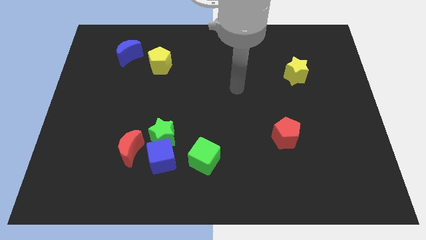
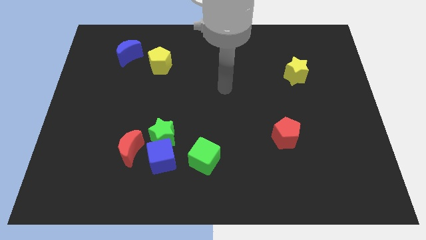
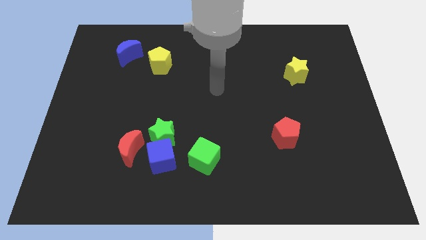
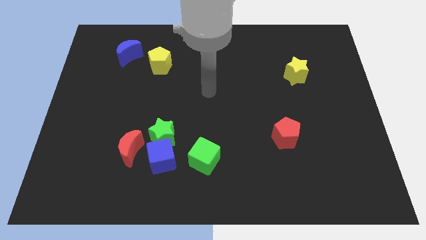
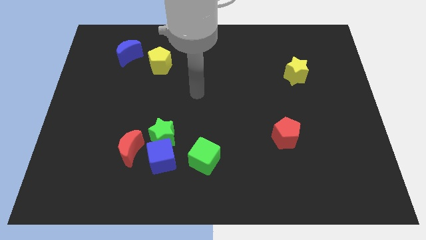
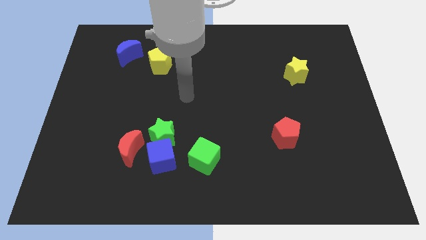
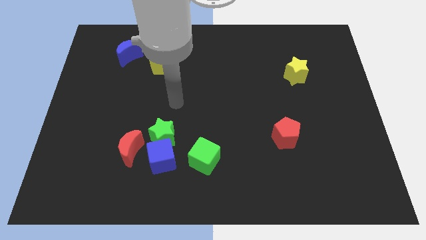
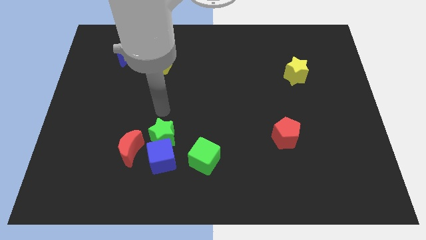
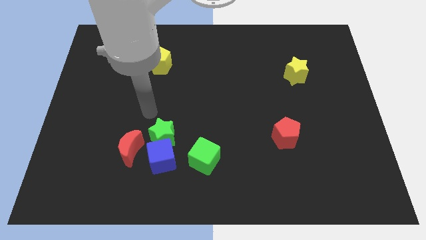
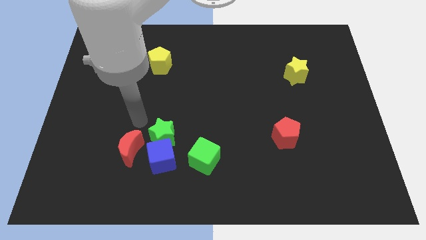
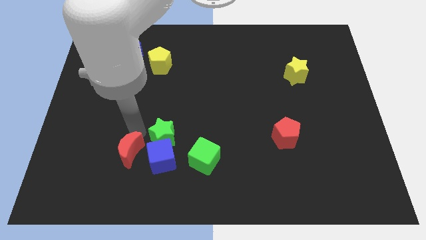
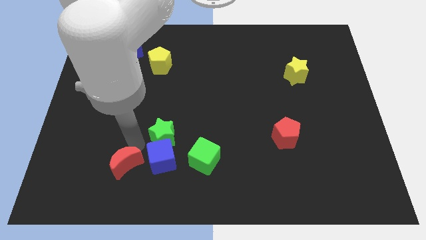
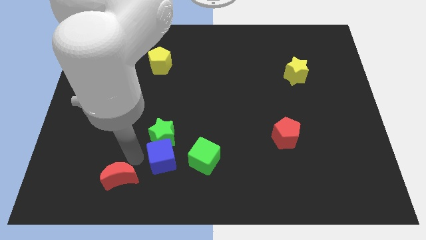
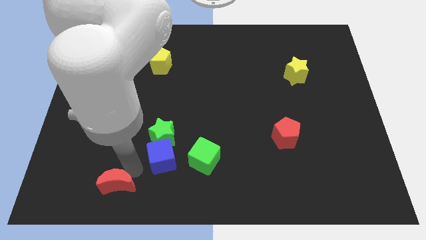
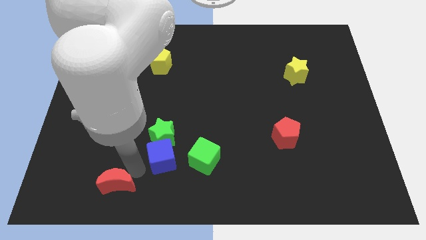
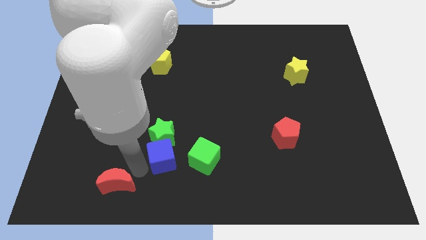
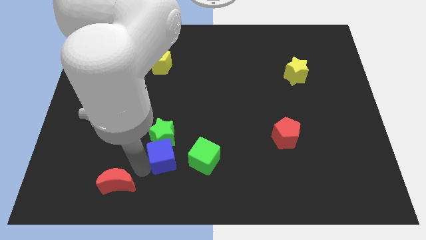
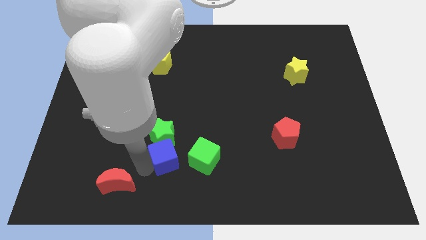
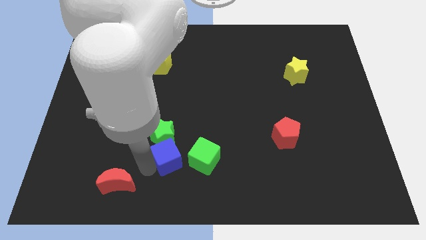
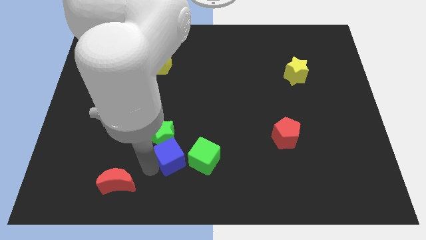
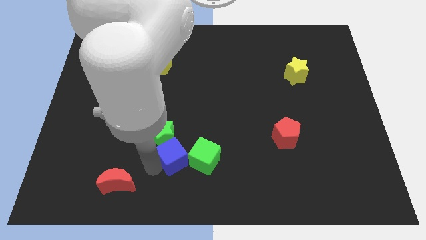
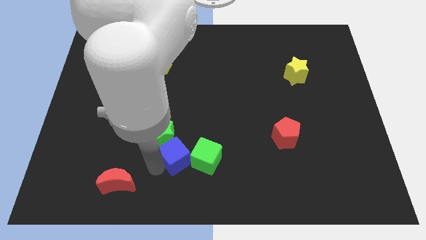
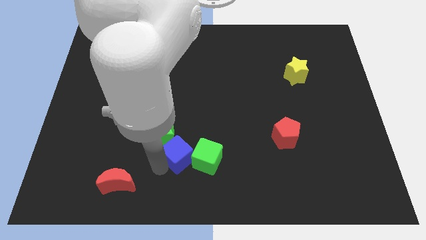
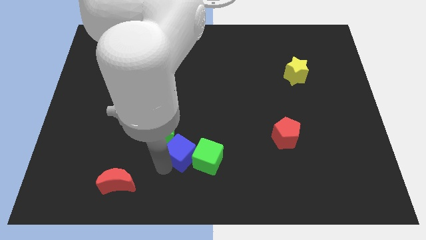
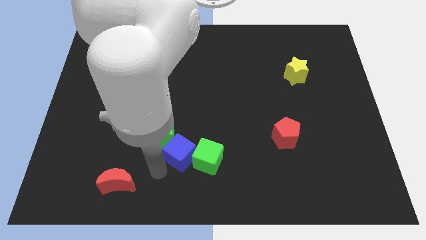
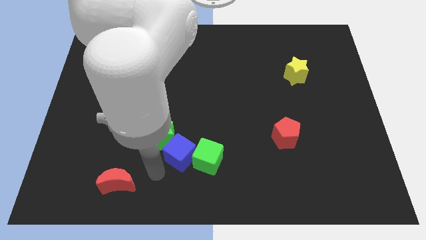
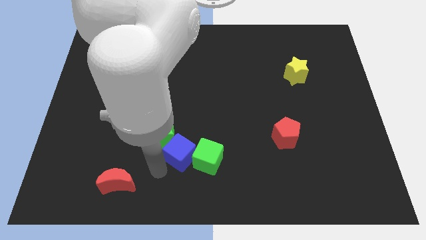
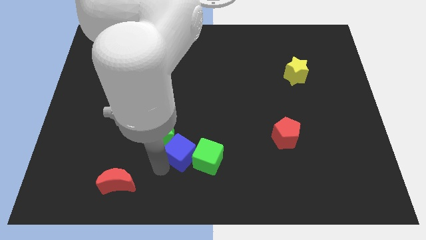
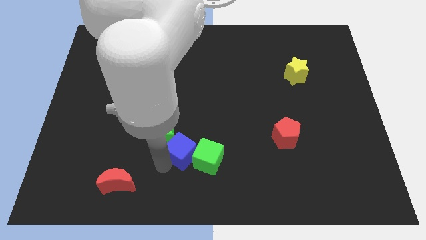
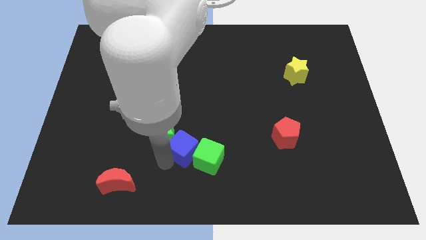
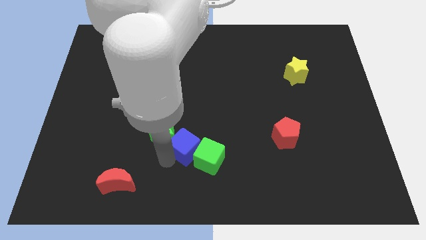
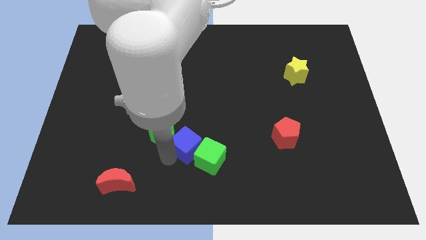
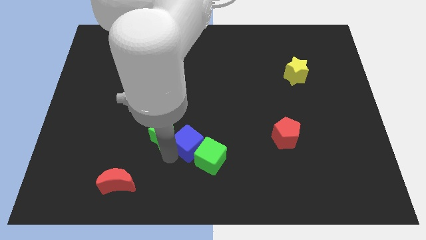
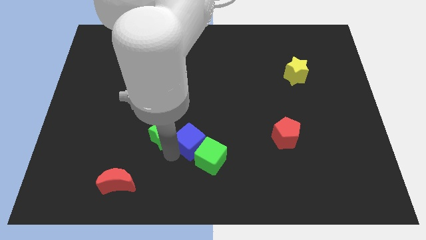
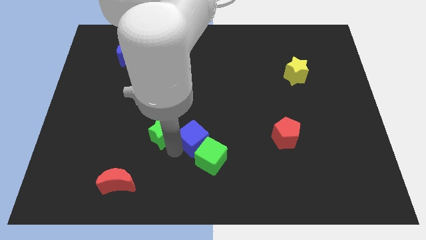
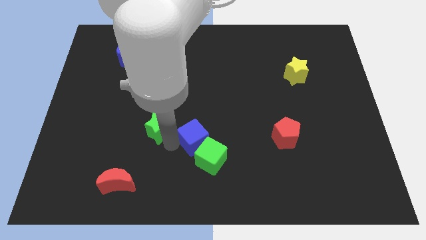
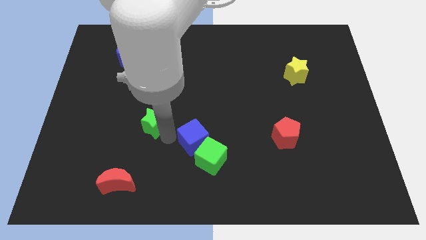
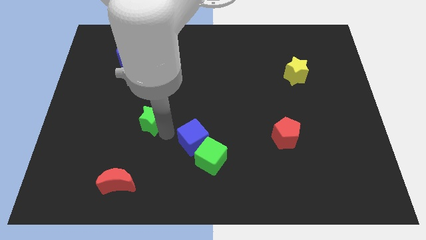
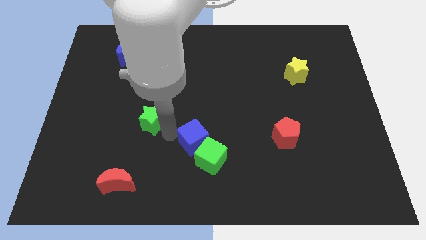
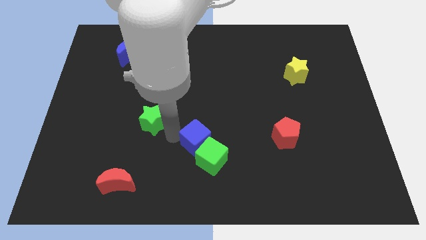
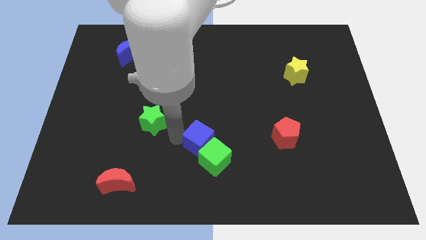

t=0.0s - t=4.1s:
push the blue cube right a bit

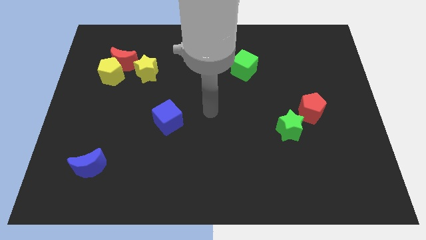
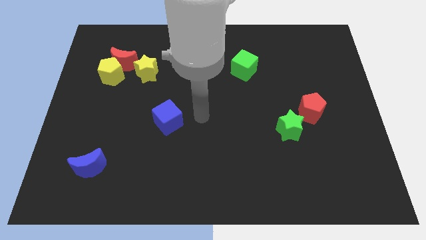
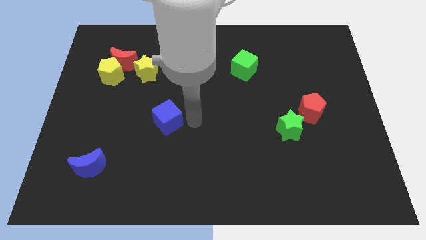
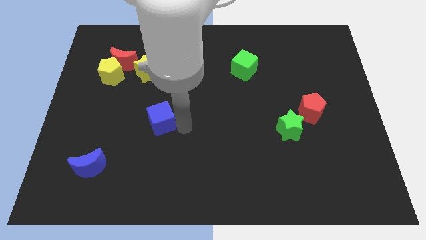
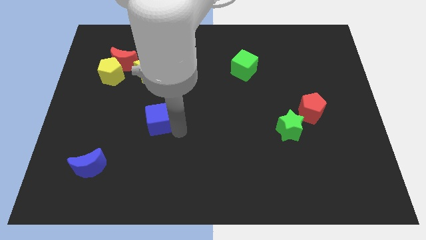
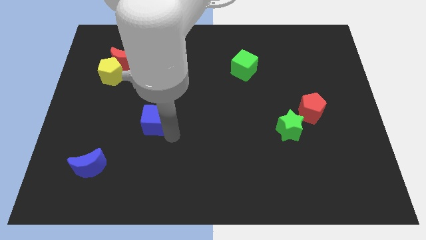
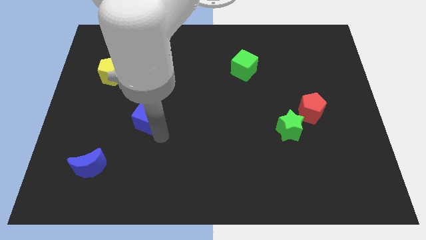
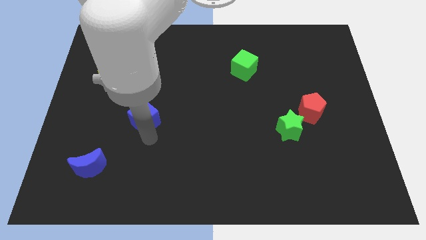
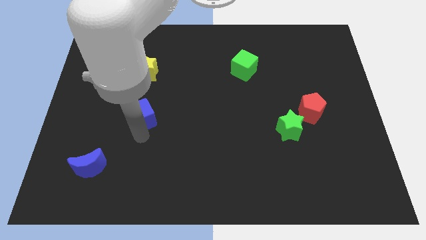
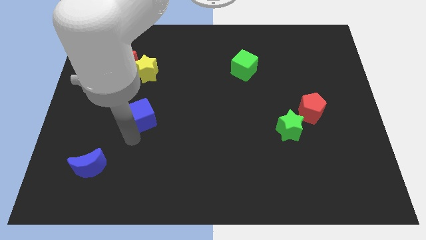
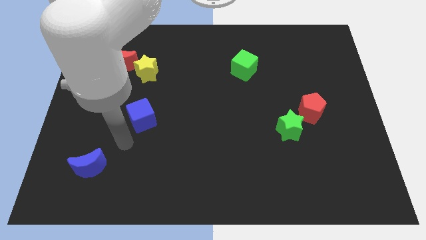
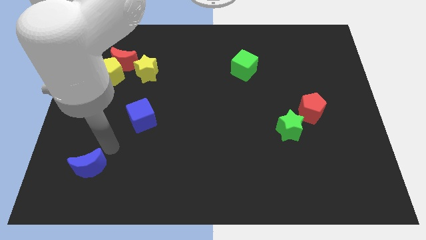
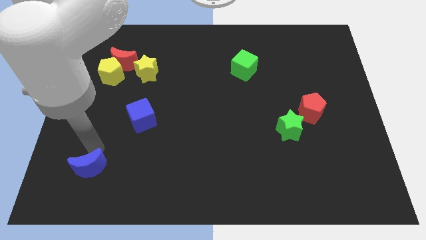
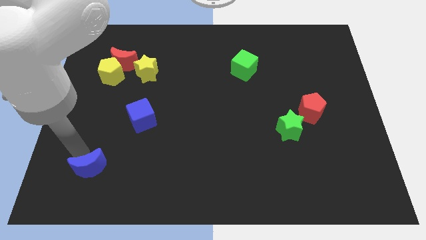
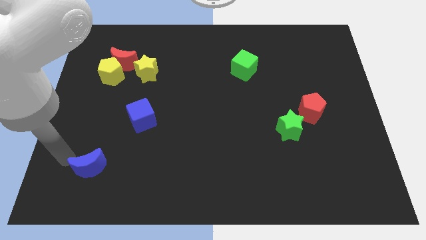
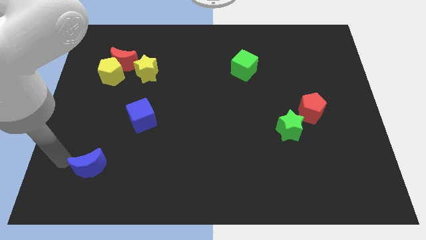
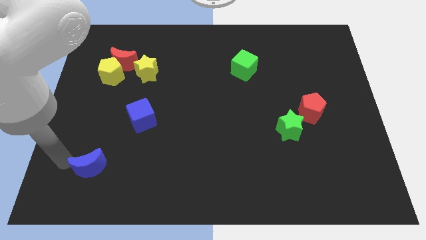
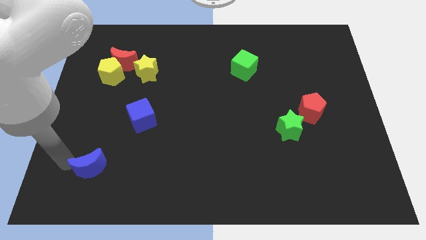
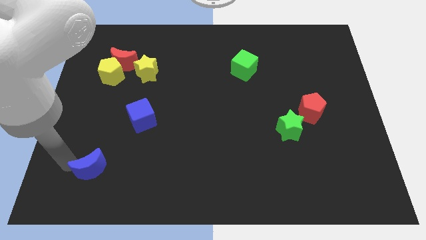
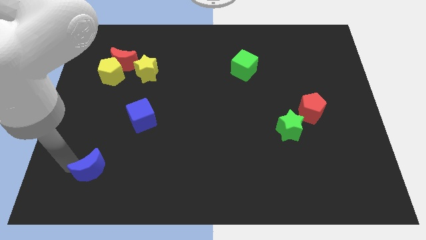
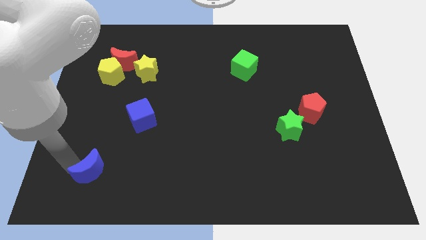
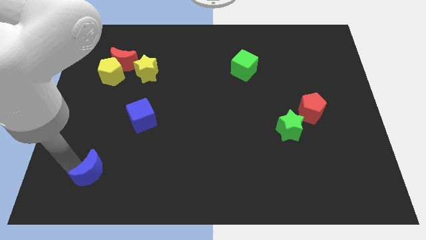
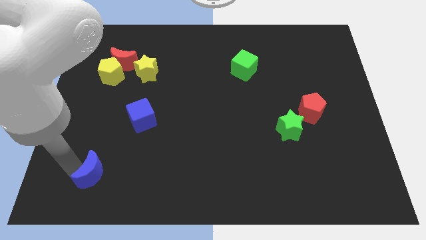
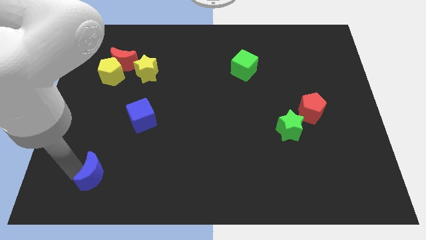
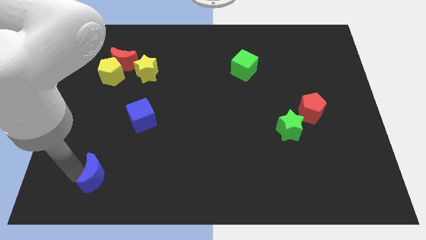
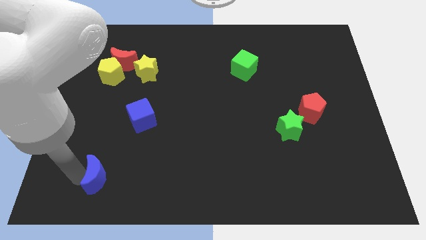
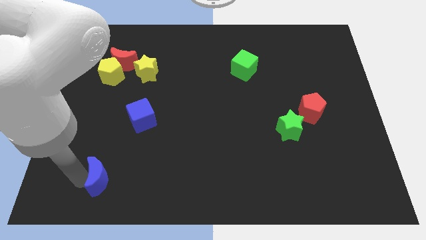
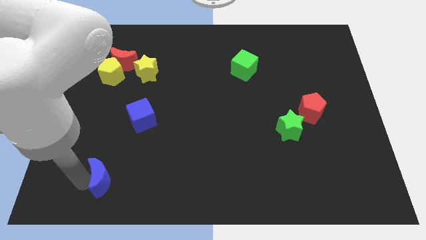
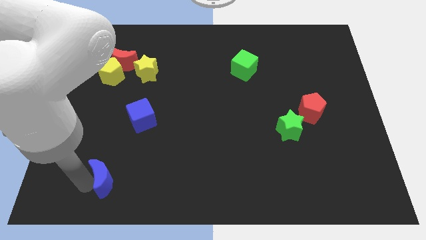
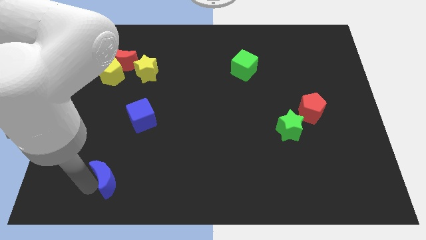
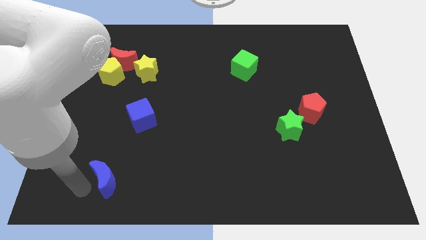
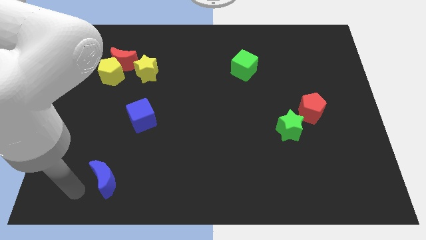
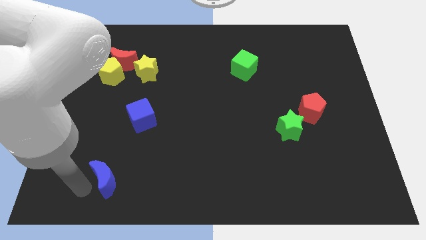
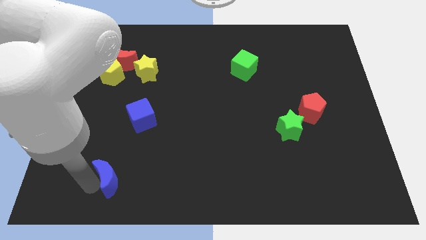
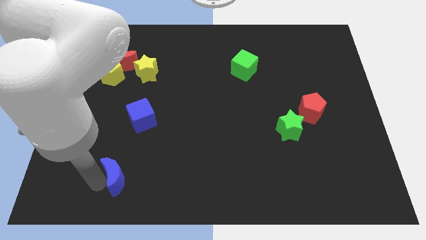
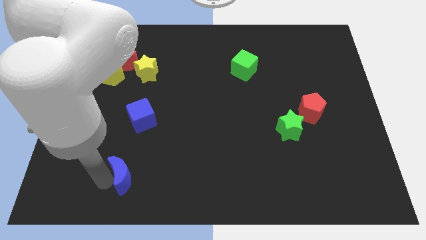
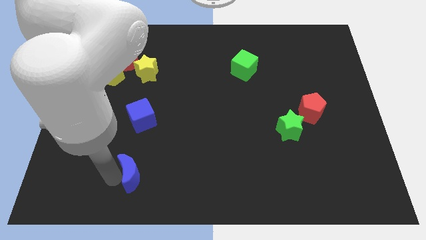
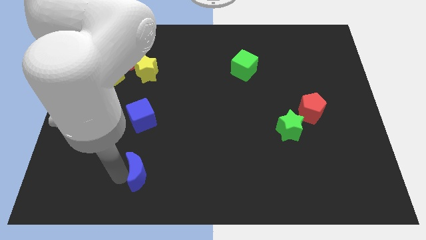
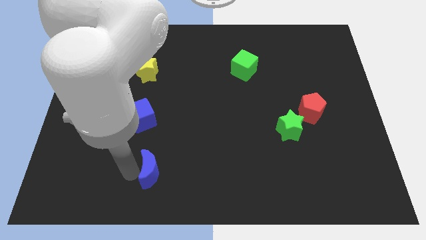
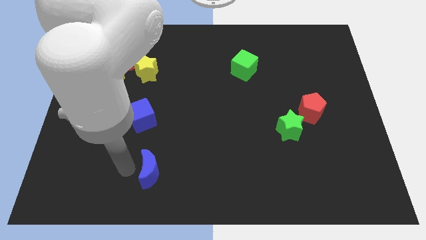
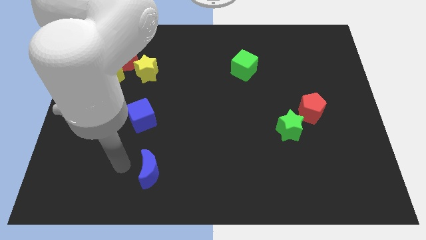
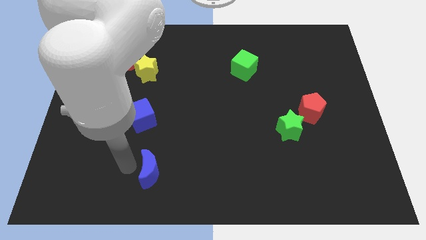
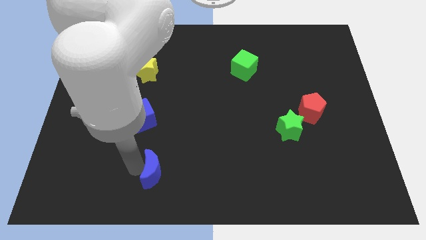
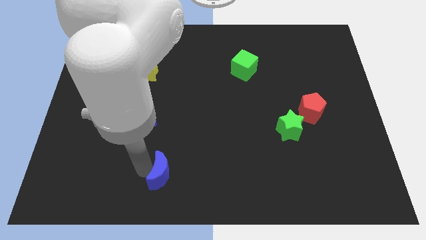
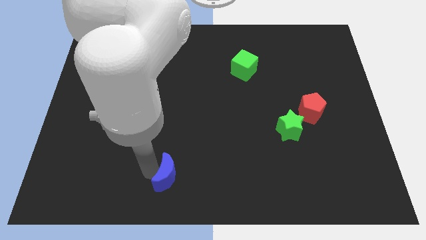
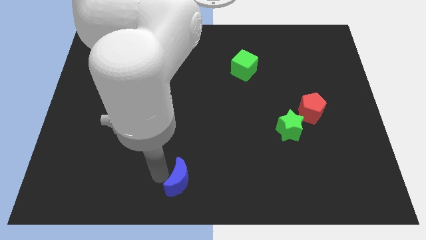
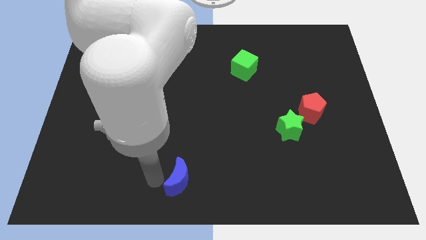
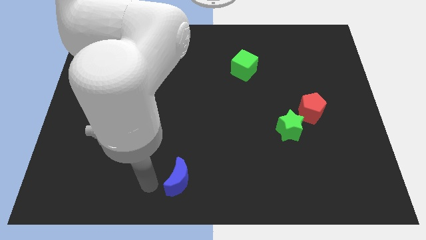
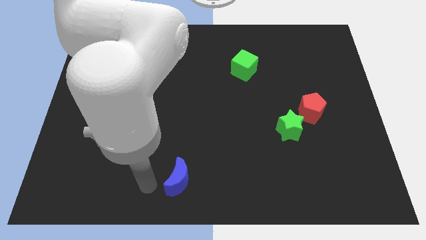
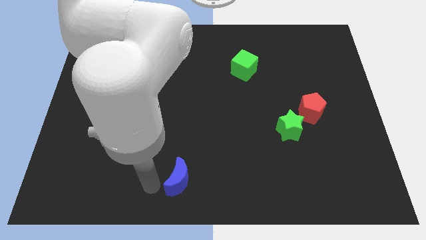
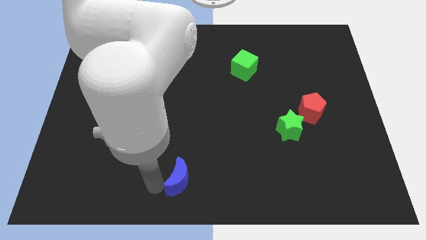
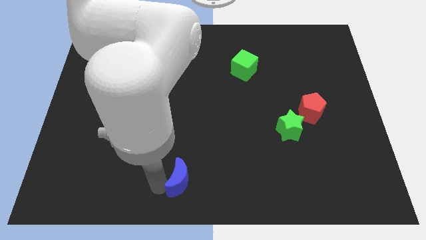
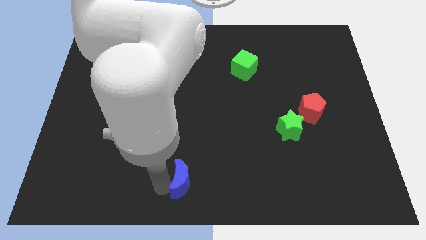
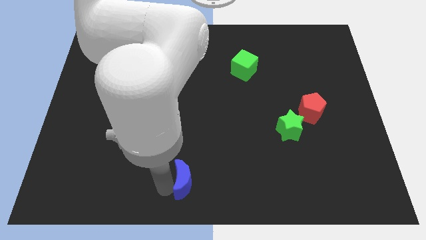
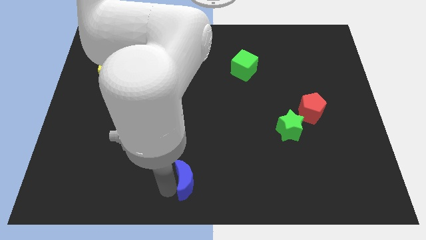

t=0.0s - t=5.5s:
push the blue moon to the right
